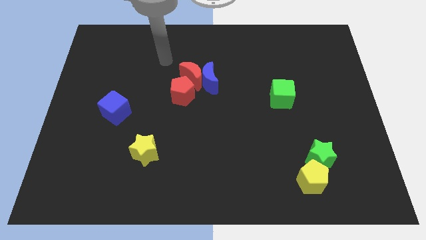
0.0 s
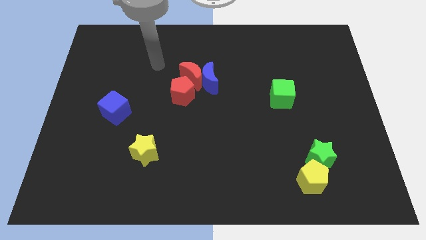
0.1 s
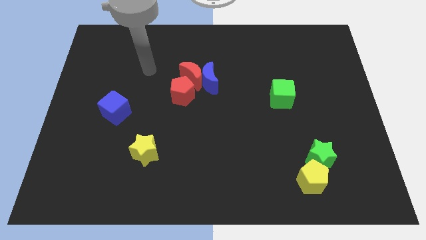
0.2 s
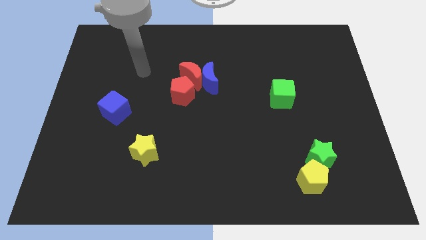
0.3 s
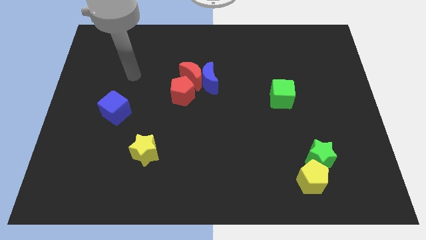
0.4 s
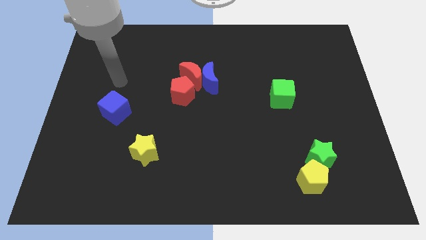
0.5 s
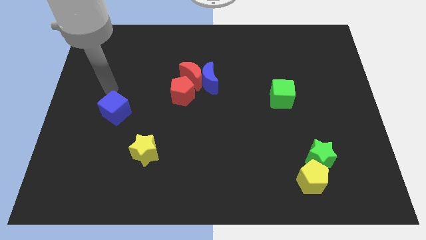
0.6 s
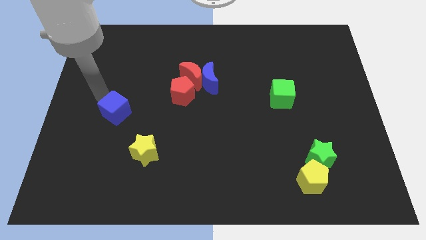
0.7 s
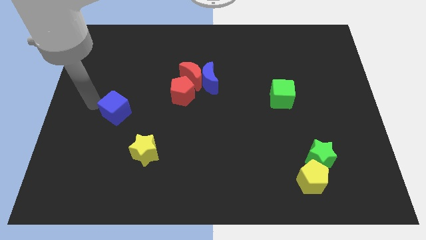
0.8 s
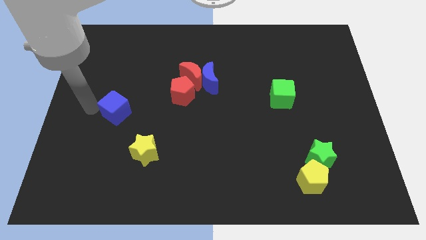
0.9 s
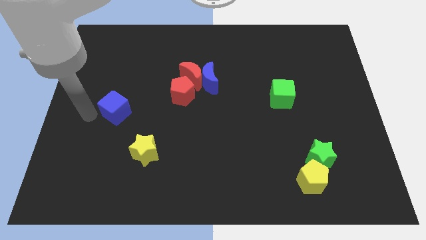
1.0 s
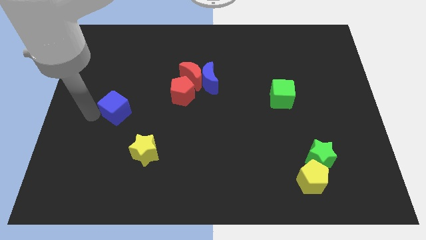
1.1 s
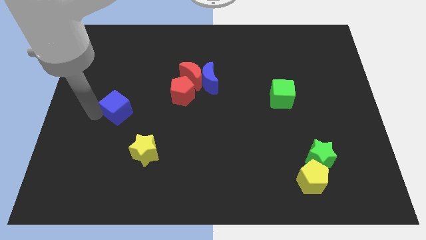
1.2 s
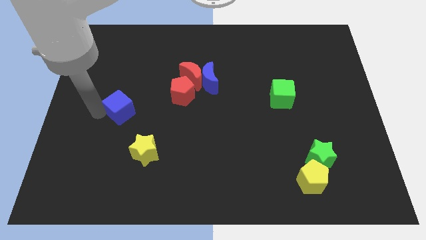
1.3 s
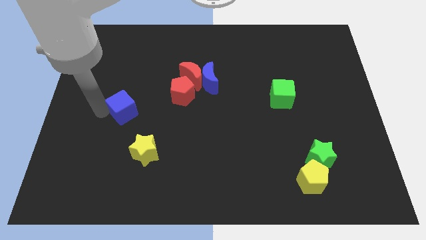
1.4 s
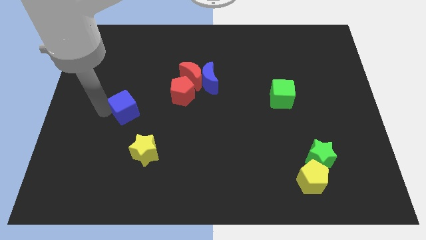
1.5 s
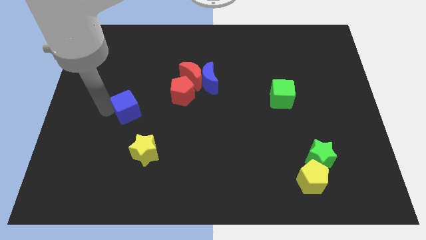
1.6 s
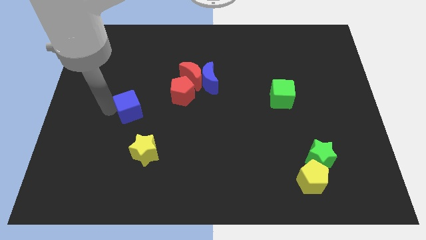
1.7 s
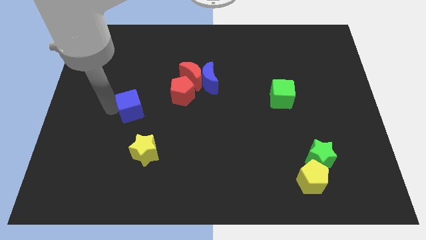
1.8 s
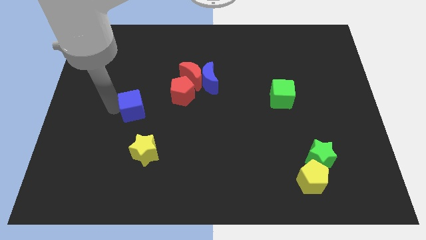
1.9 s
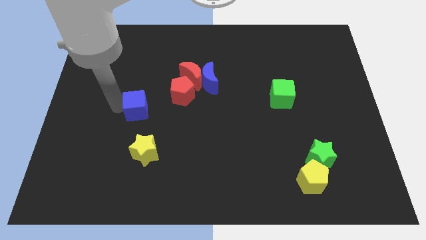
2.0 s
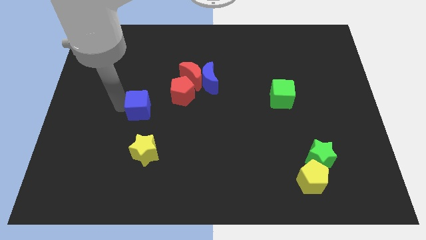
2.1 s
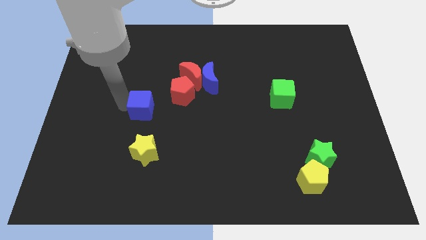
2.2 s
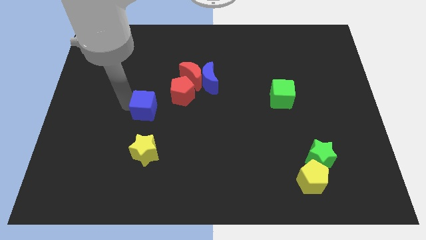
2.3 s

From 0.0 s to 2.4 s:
slide the blue cube to the right a little

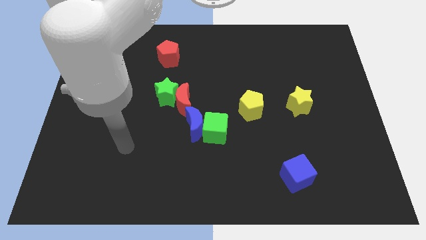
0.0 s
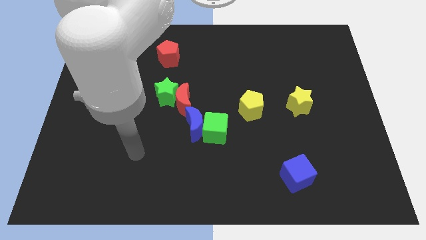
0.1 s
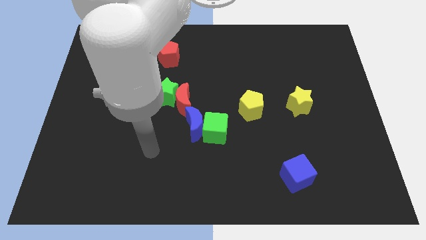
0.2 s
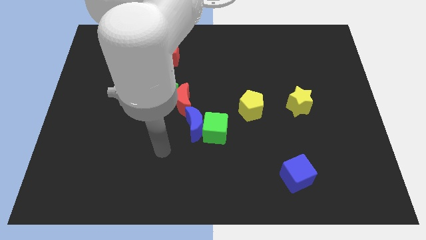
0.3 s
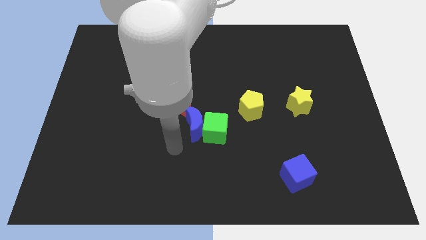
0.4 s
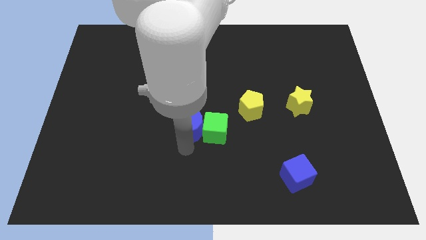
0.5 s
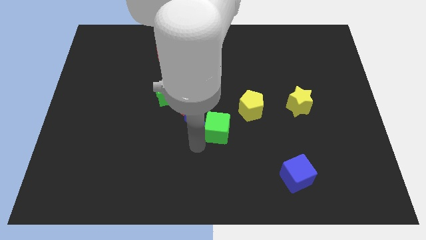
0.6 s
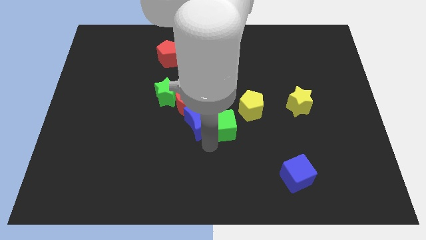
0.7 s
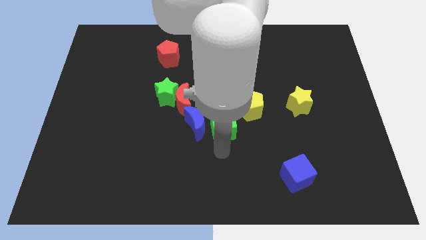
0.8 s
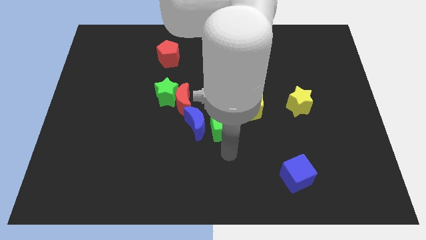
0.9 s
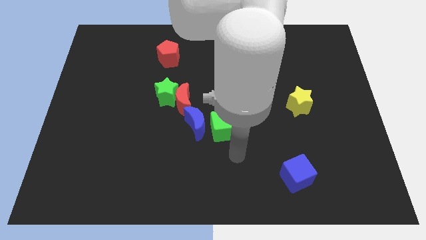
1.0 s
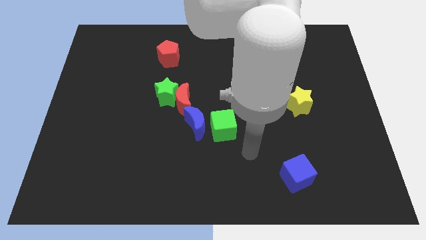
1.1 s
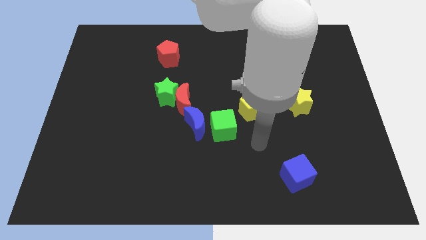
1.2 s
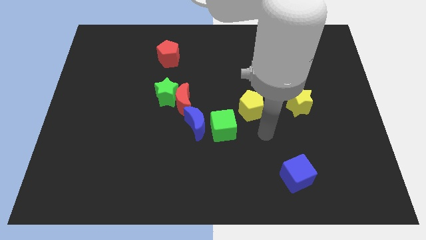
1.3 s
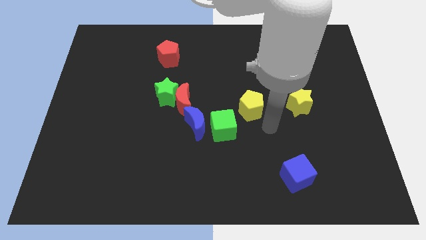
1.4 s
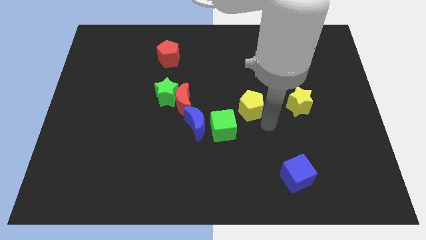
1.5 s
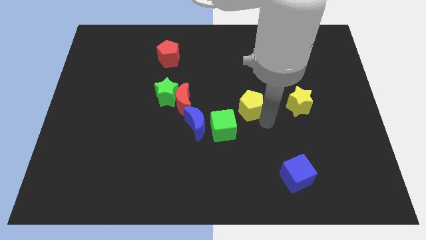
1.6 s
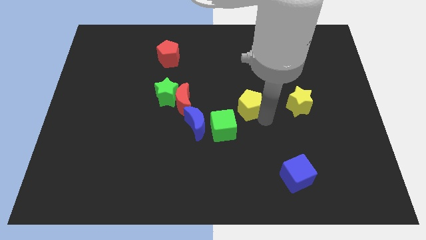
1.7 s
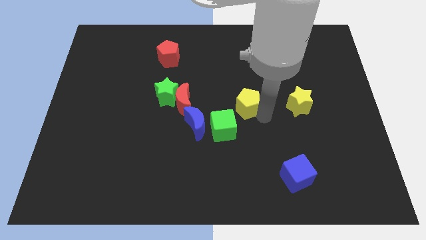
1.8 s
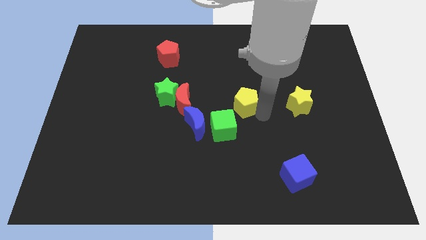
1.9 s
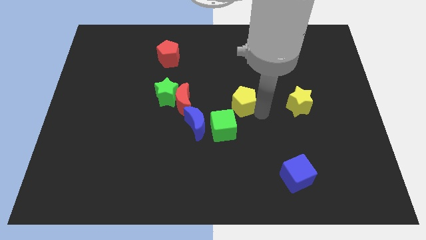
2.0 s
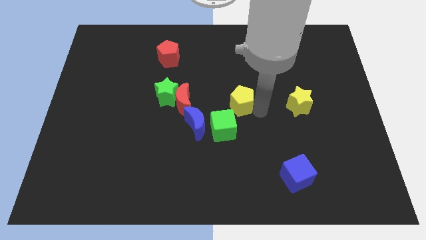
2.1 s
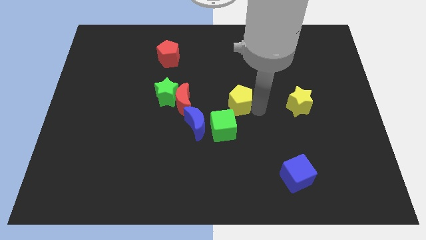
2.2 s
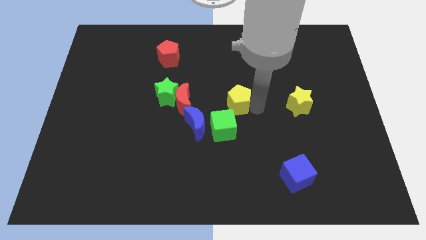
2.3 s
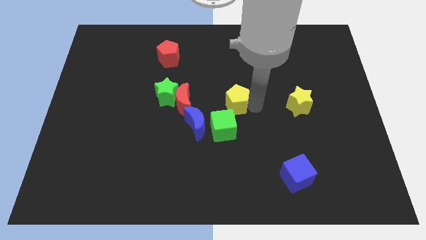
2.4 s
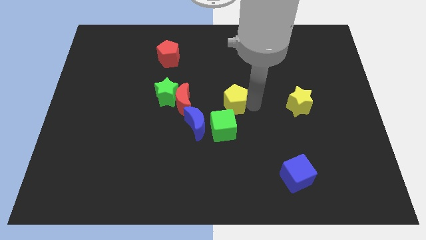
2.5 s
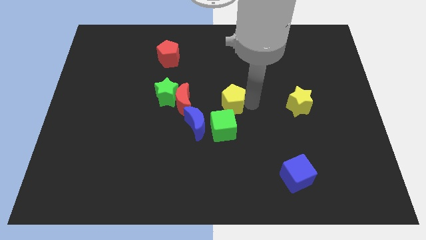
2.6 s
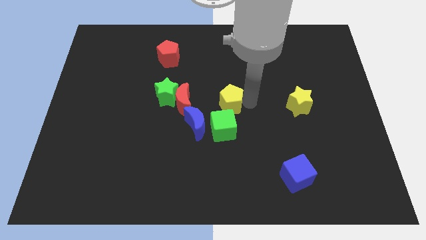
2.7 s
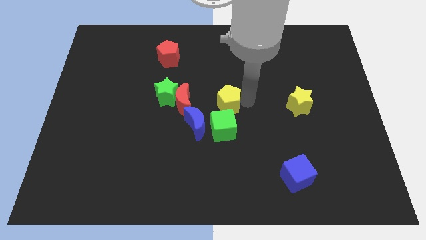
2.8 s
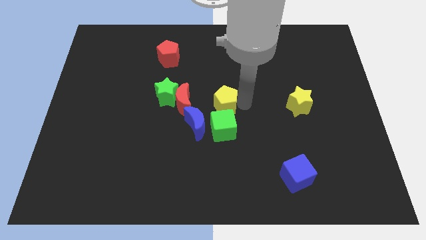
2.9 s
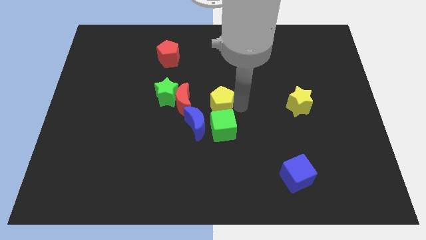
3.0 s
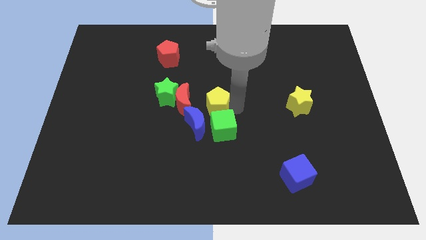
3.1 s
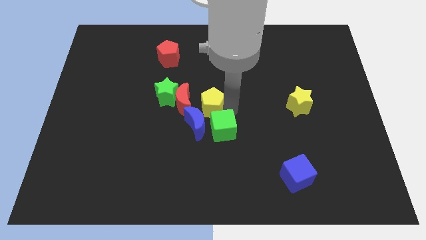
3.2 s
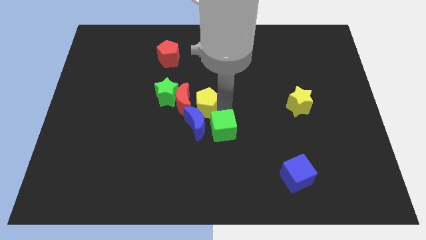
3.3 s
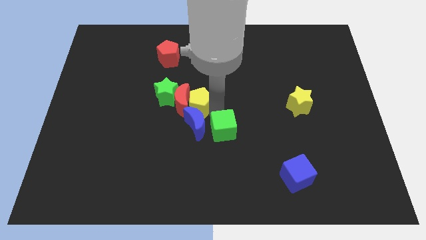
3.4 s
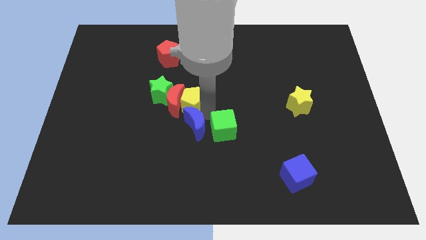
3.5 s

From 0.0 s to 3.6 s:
slide the yellow pentagon a little up and then left

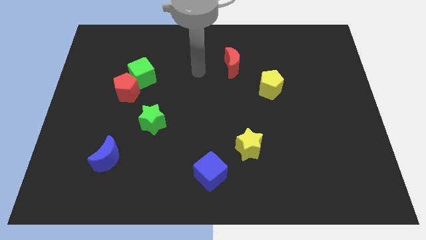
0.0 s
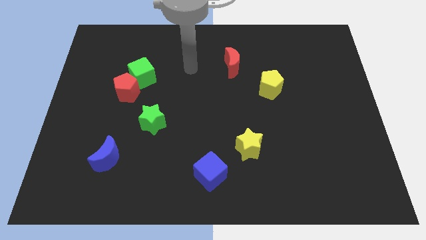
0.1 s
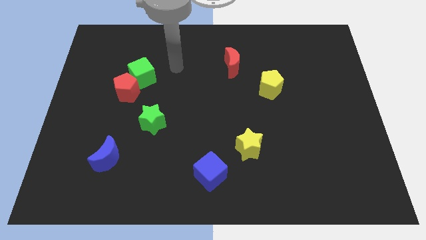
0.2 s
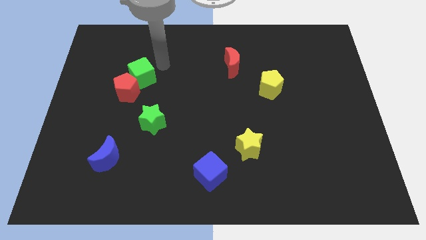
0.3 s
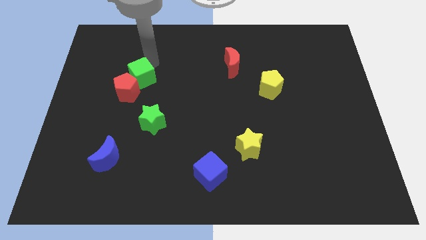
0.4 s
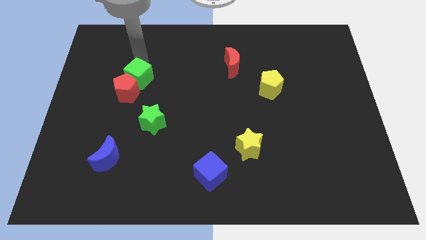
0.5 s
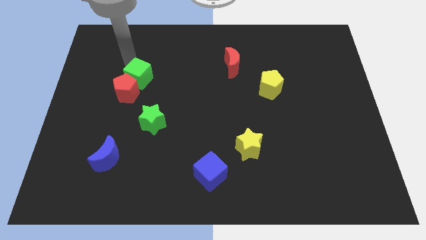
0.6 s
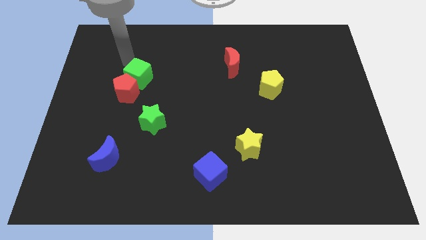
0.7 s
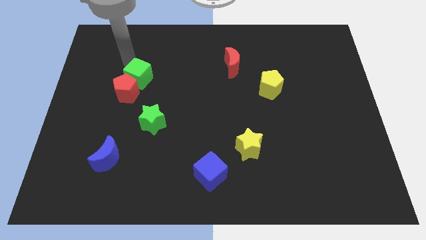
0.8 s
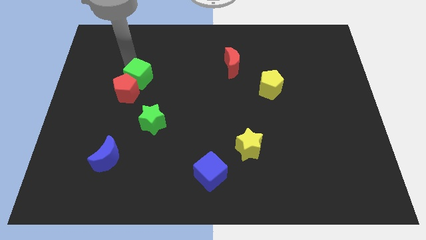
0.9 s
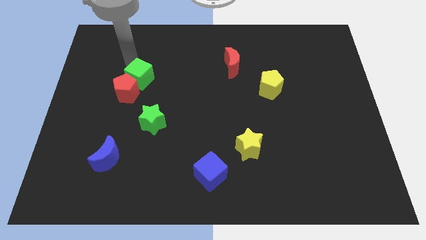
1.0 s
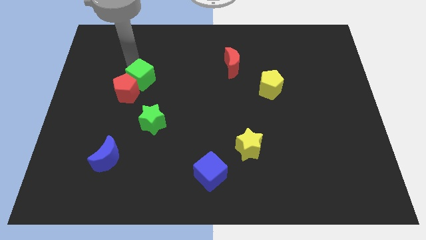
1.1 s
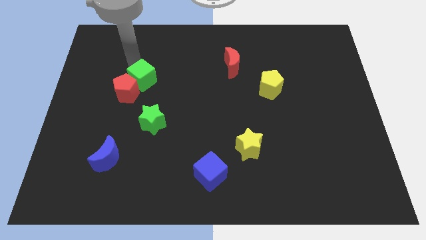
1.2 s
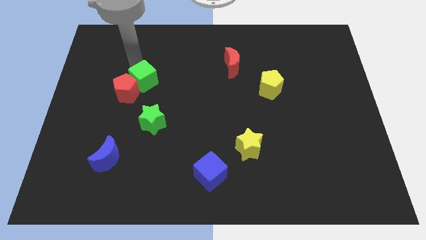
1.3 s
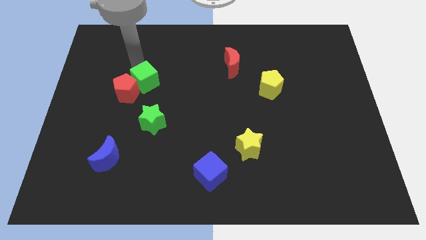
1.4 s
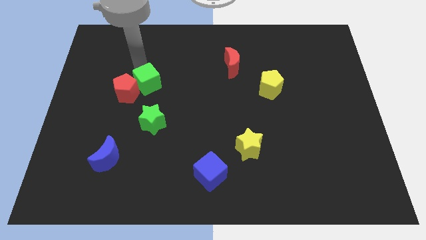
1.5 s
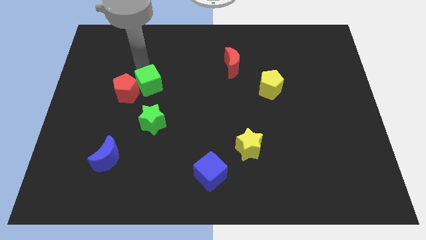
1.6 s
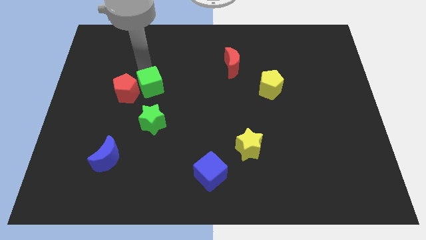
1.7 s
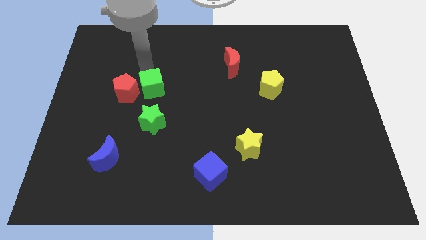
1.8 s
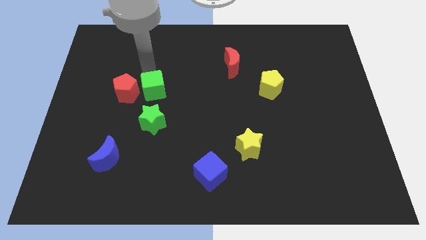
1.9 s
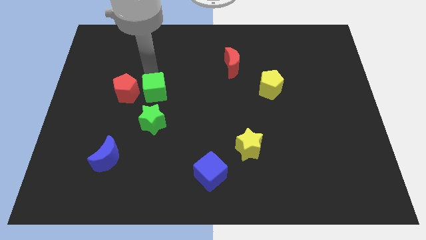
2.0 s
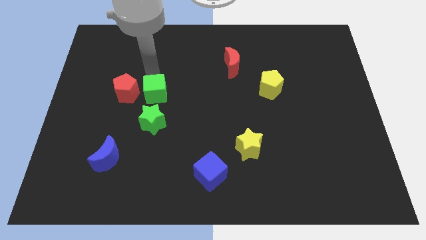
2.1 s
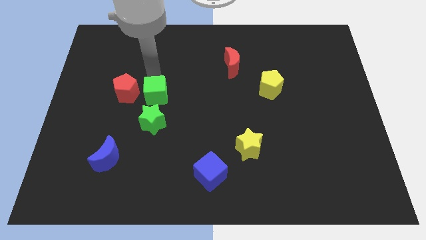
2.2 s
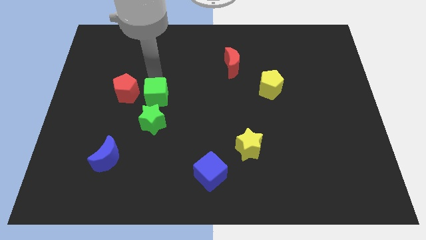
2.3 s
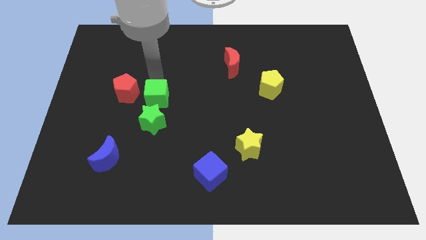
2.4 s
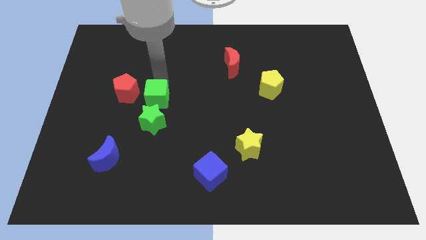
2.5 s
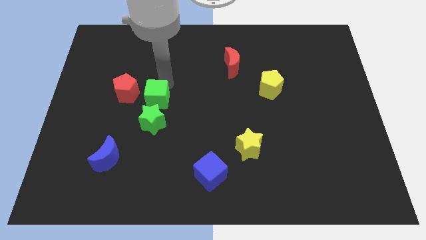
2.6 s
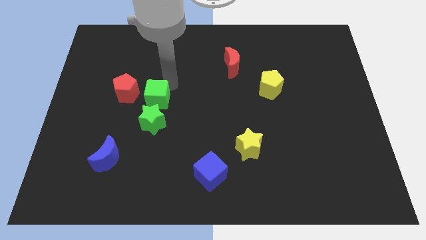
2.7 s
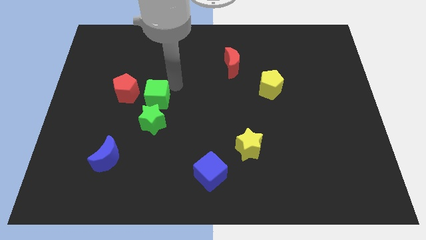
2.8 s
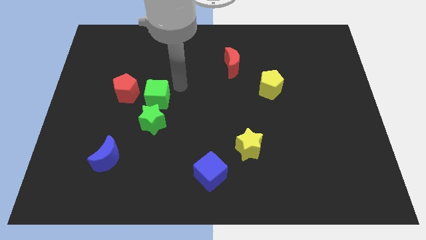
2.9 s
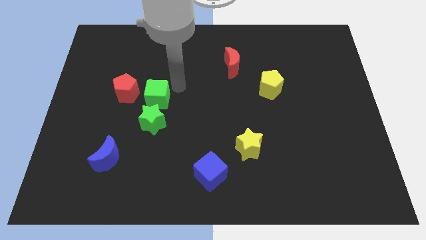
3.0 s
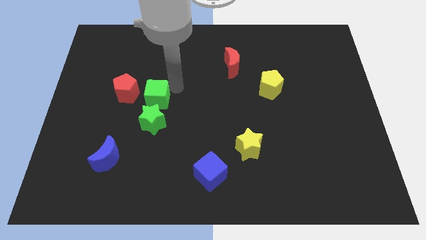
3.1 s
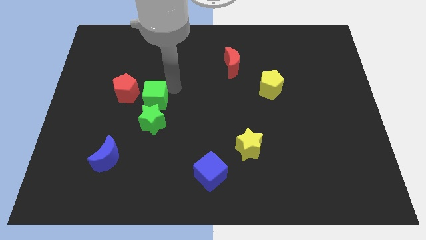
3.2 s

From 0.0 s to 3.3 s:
move the green cube down slightly
